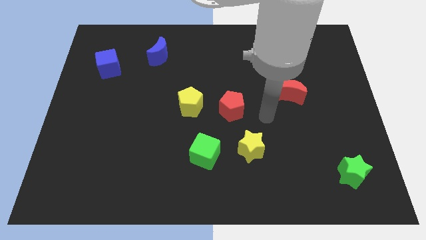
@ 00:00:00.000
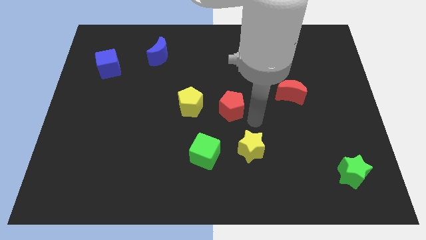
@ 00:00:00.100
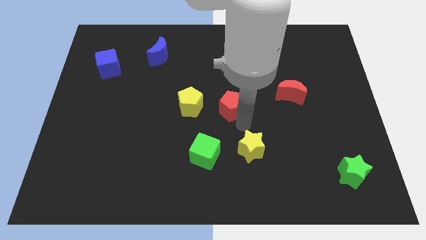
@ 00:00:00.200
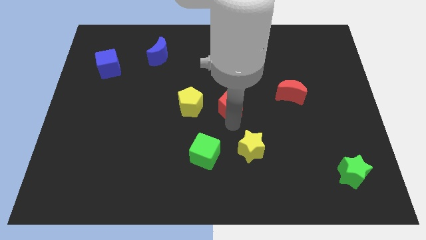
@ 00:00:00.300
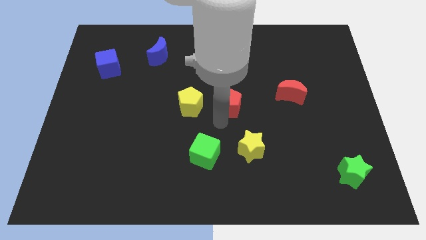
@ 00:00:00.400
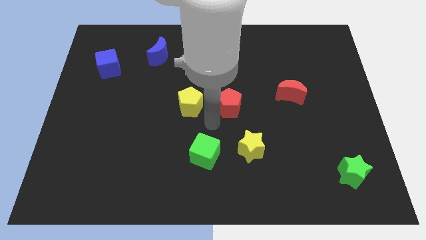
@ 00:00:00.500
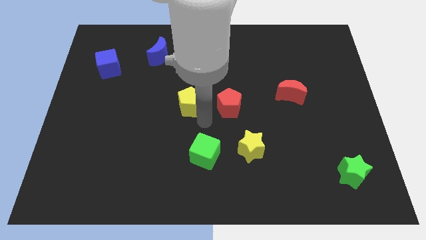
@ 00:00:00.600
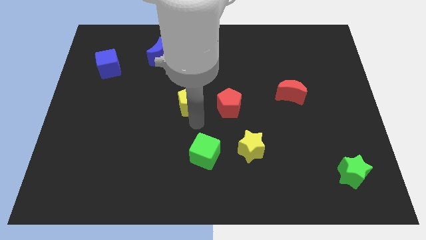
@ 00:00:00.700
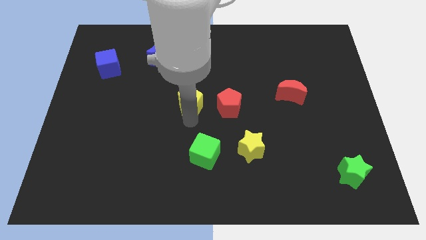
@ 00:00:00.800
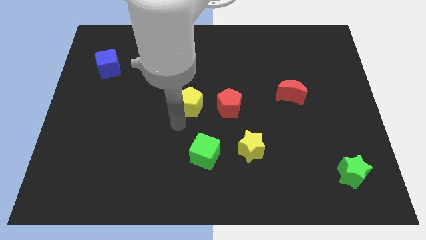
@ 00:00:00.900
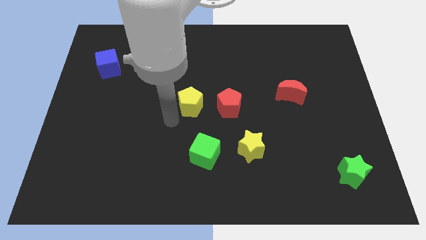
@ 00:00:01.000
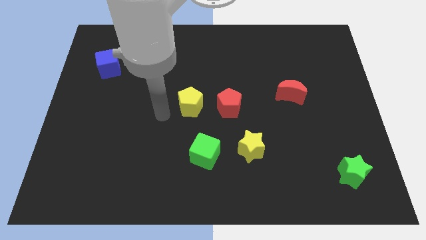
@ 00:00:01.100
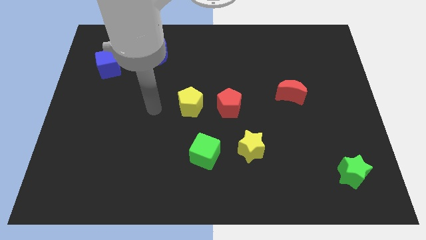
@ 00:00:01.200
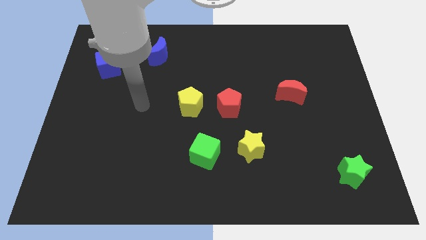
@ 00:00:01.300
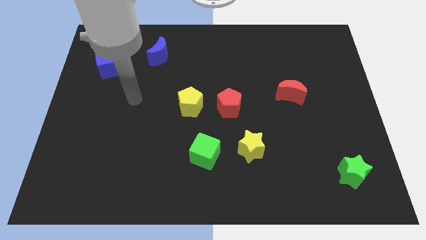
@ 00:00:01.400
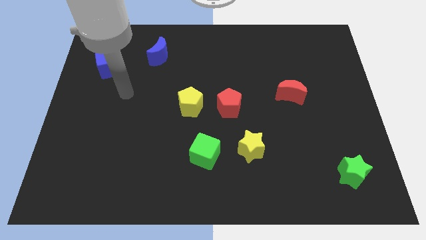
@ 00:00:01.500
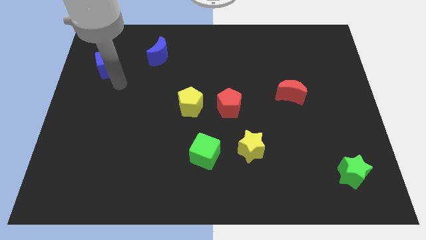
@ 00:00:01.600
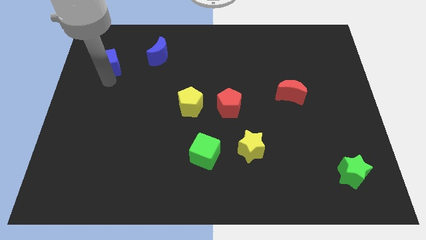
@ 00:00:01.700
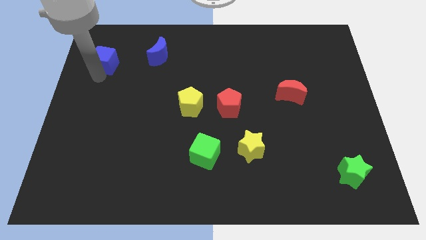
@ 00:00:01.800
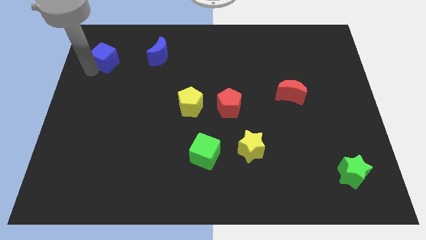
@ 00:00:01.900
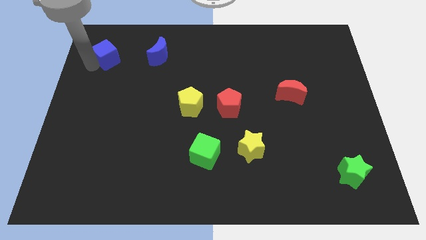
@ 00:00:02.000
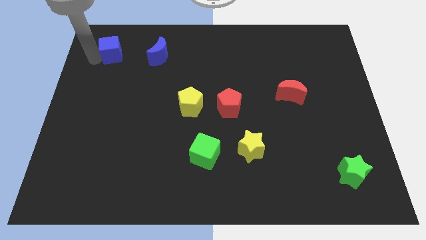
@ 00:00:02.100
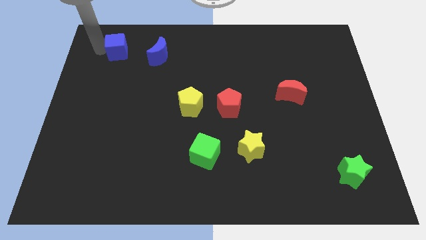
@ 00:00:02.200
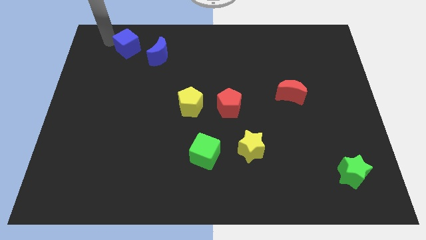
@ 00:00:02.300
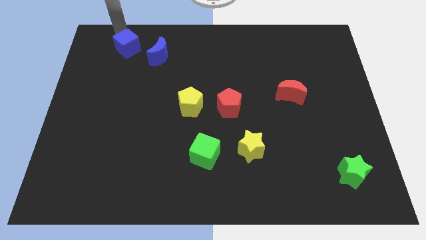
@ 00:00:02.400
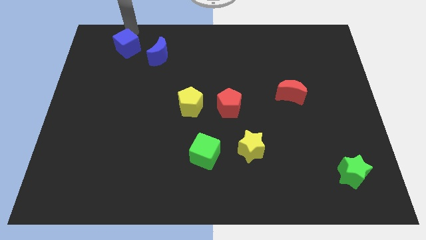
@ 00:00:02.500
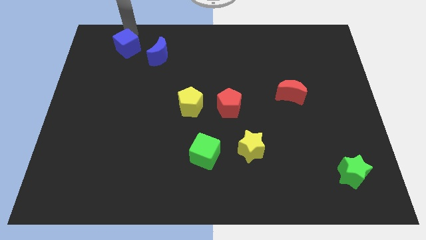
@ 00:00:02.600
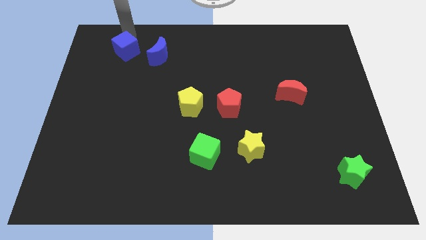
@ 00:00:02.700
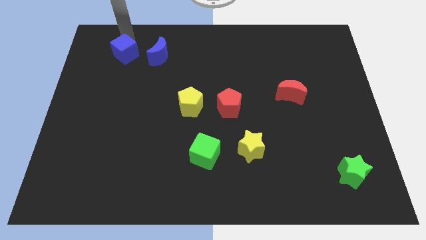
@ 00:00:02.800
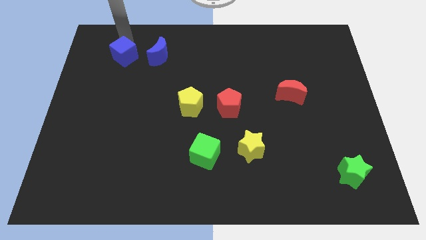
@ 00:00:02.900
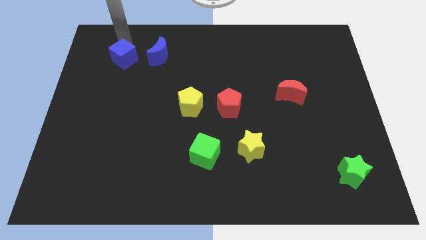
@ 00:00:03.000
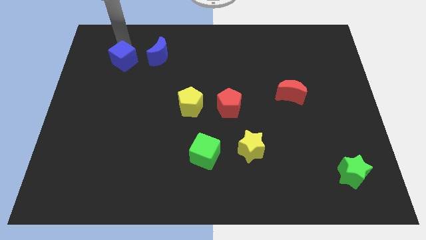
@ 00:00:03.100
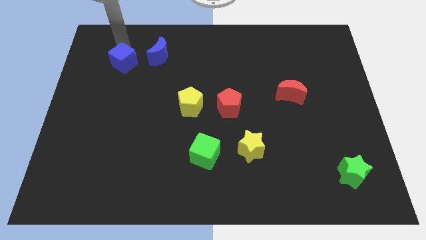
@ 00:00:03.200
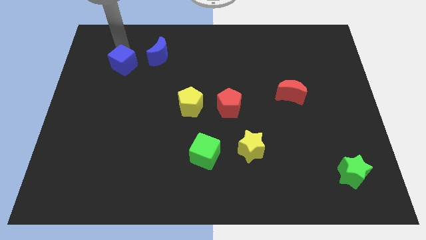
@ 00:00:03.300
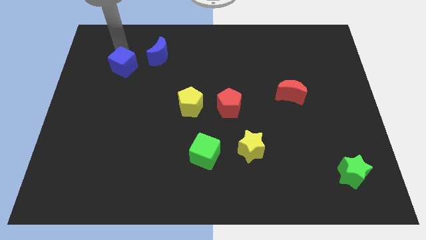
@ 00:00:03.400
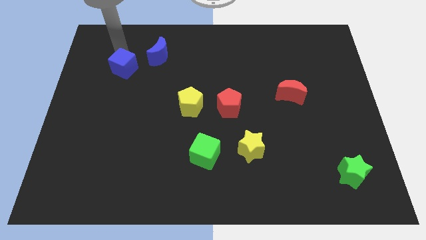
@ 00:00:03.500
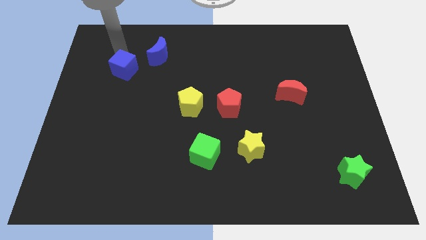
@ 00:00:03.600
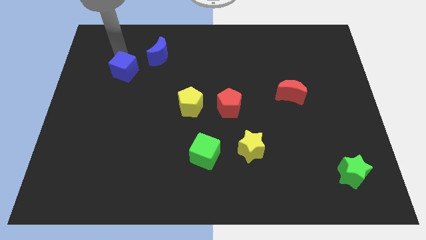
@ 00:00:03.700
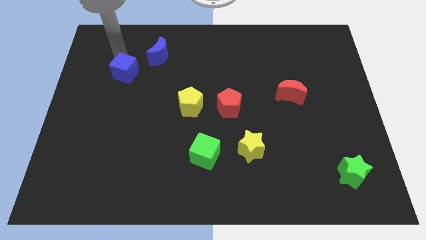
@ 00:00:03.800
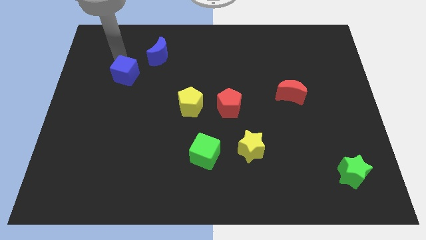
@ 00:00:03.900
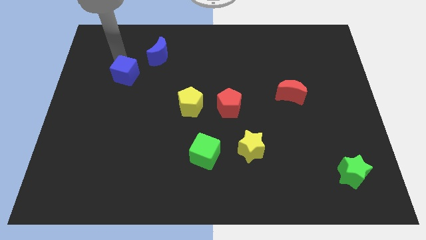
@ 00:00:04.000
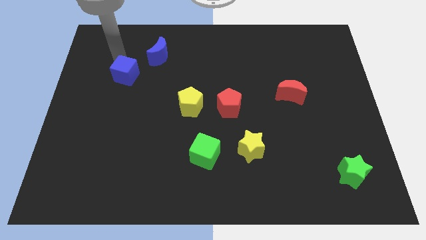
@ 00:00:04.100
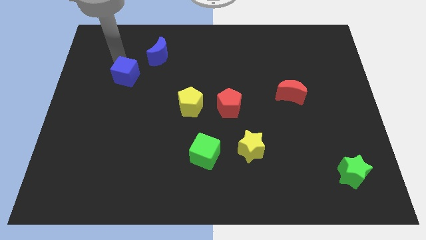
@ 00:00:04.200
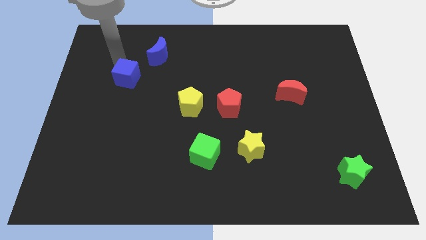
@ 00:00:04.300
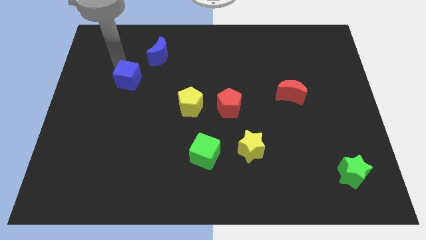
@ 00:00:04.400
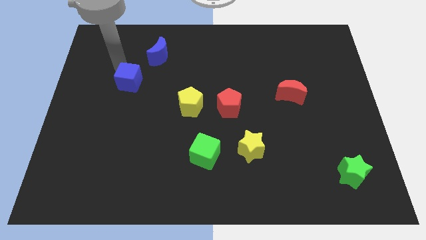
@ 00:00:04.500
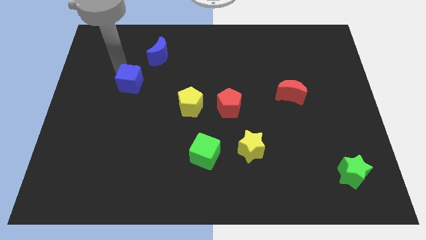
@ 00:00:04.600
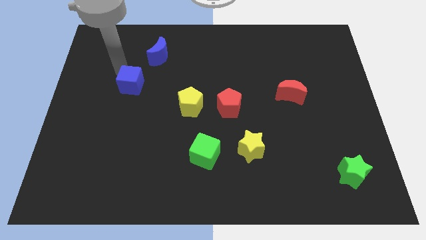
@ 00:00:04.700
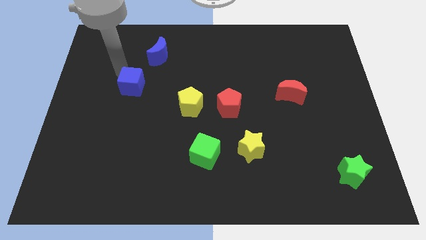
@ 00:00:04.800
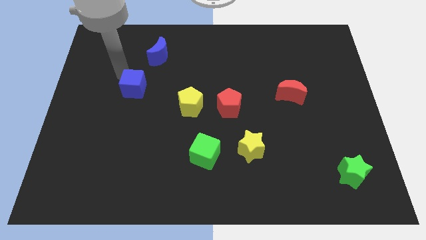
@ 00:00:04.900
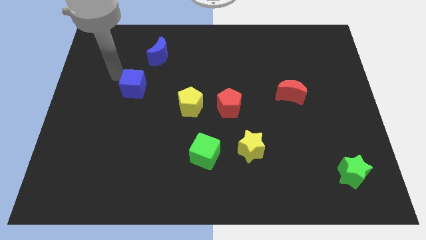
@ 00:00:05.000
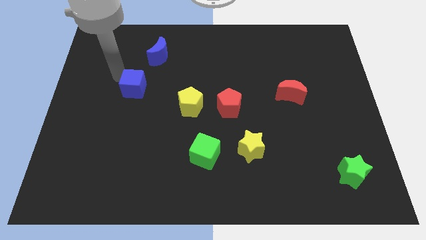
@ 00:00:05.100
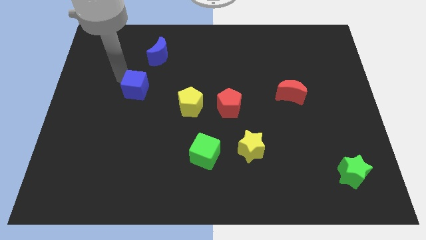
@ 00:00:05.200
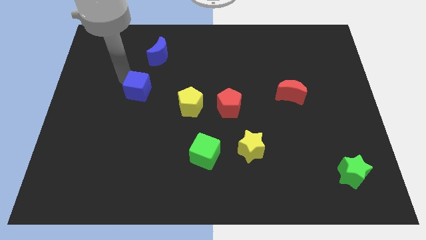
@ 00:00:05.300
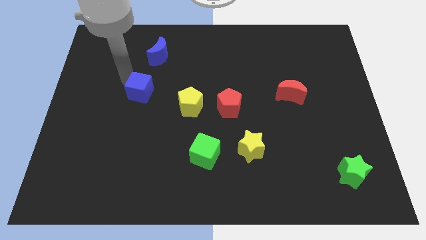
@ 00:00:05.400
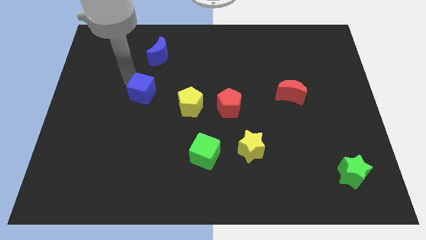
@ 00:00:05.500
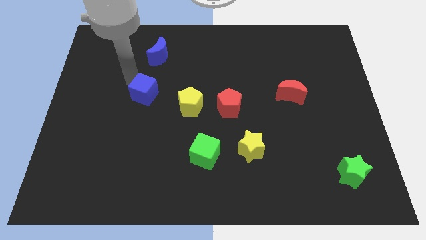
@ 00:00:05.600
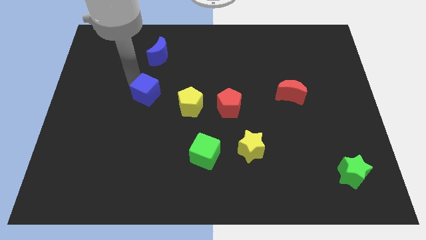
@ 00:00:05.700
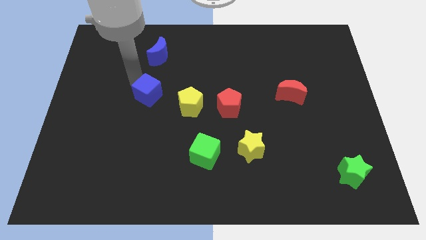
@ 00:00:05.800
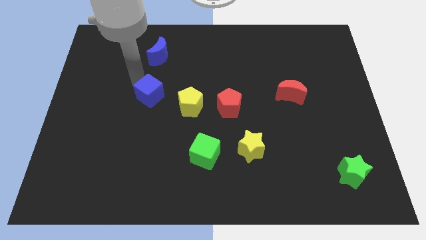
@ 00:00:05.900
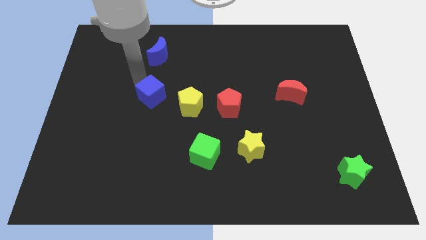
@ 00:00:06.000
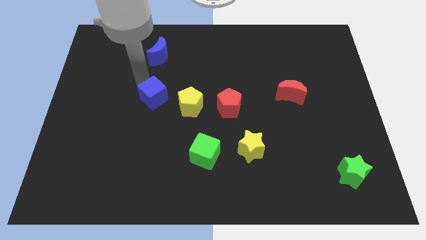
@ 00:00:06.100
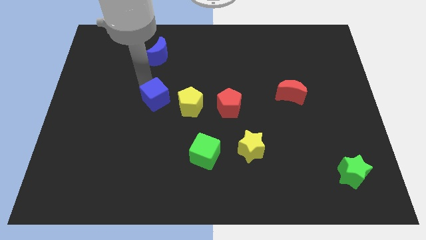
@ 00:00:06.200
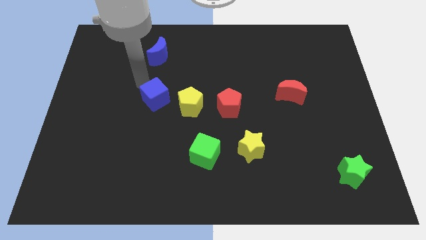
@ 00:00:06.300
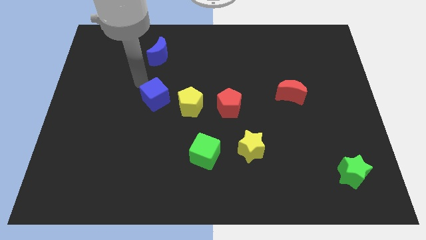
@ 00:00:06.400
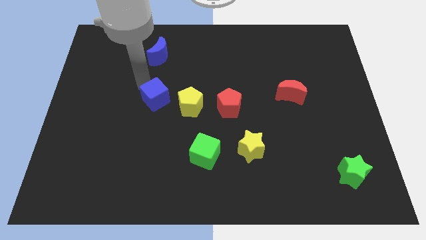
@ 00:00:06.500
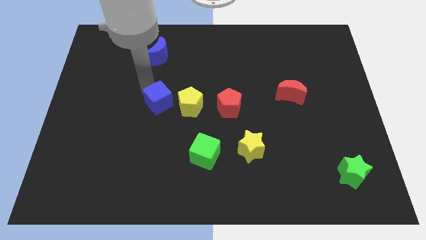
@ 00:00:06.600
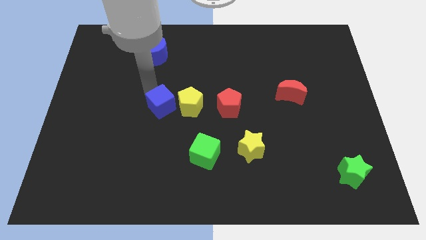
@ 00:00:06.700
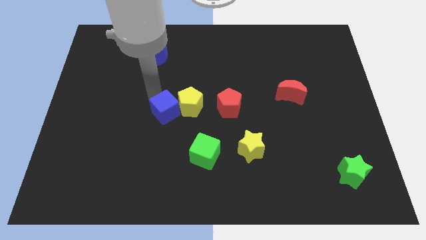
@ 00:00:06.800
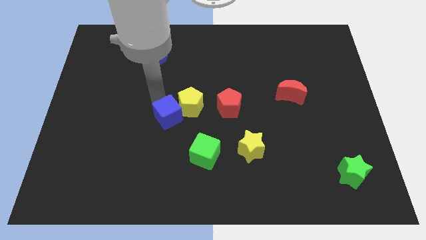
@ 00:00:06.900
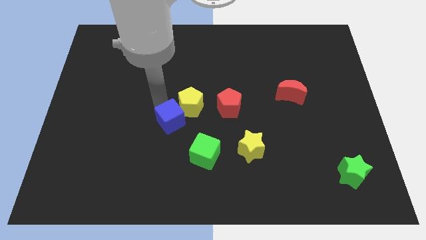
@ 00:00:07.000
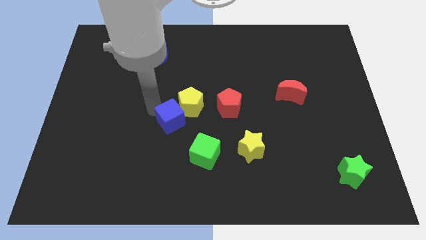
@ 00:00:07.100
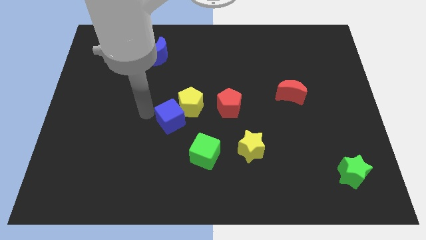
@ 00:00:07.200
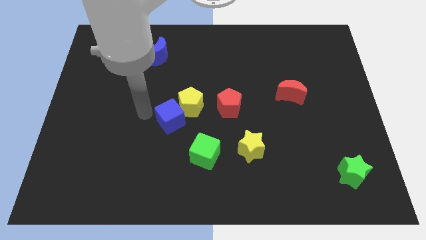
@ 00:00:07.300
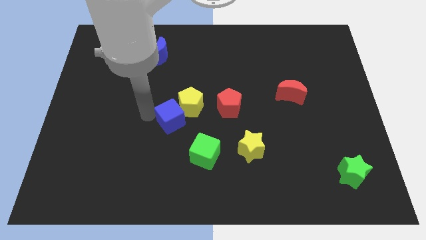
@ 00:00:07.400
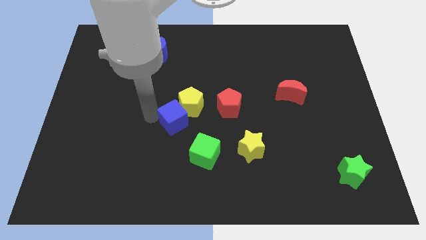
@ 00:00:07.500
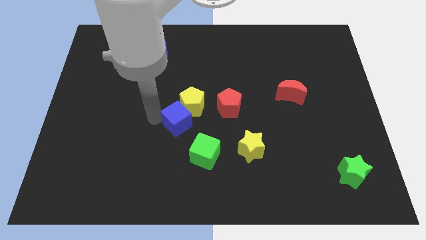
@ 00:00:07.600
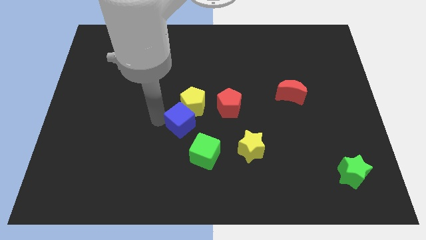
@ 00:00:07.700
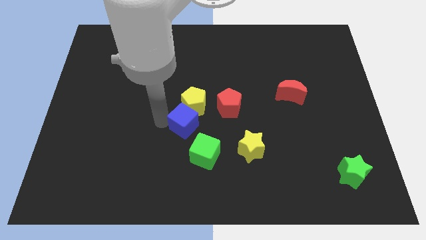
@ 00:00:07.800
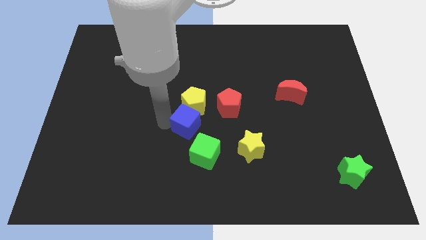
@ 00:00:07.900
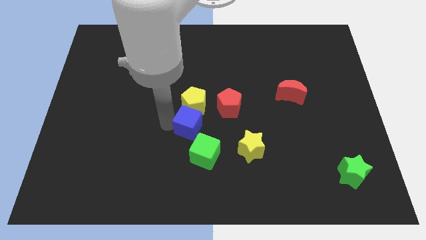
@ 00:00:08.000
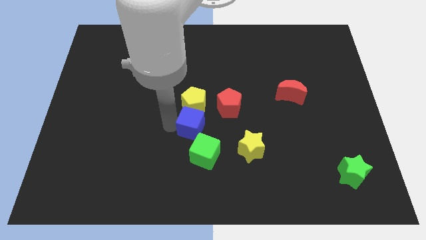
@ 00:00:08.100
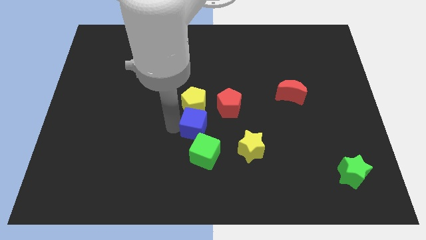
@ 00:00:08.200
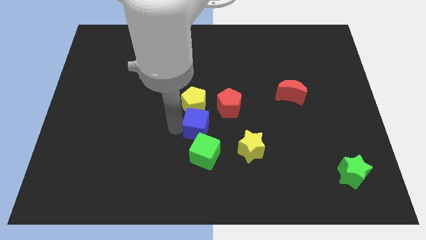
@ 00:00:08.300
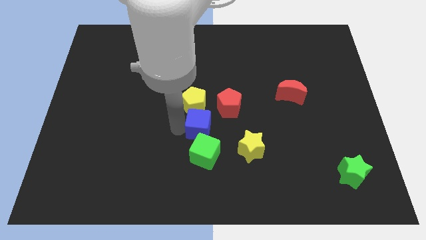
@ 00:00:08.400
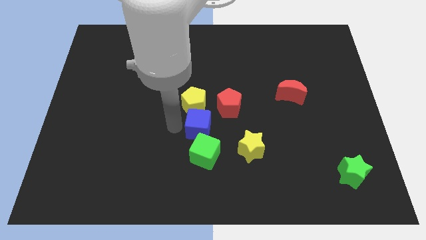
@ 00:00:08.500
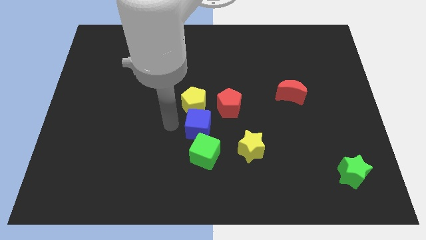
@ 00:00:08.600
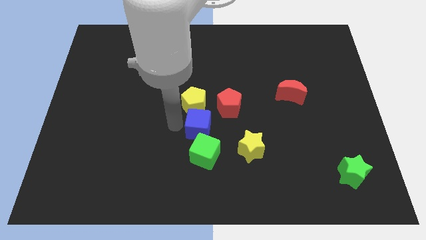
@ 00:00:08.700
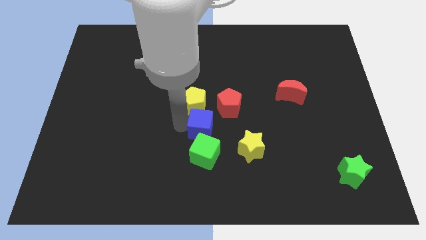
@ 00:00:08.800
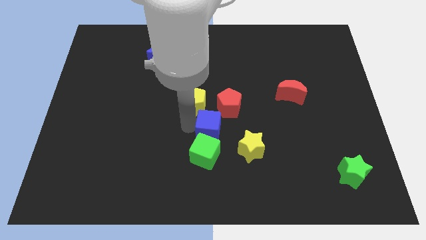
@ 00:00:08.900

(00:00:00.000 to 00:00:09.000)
push the blue cube to the top right side of the green cube
